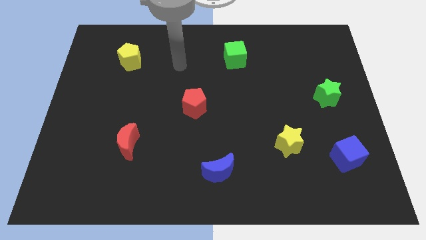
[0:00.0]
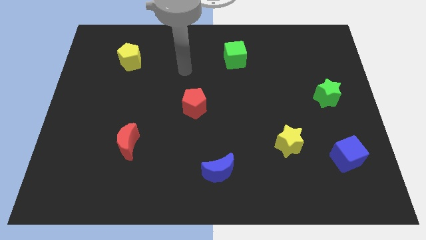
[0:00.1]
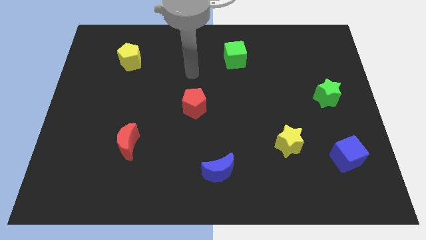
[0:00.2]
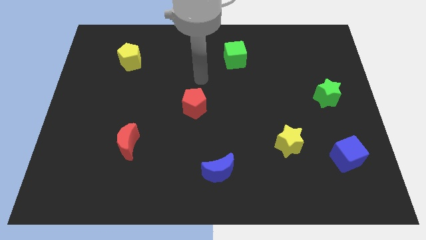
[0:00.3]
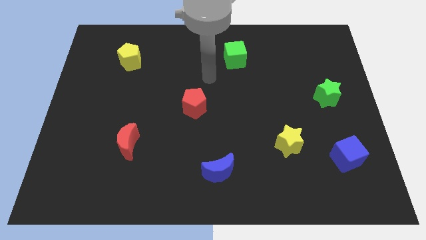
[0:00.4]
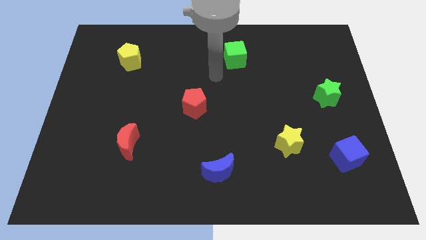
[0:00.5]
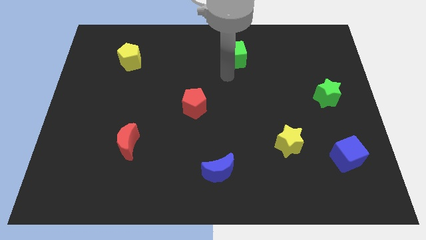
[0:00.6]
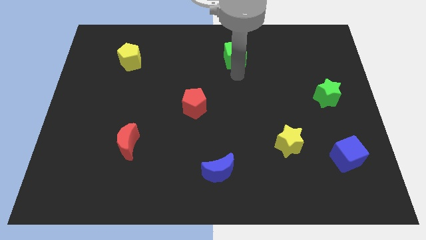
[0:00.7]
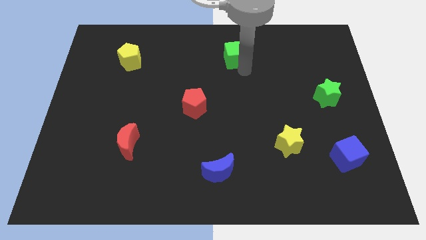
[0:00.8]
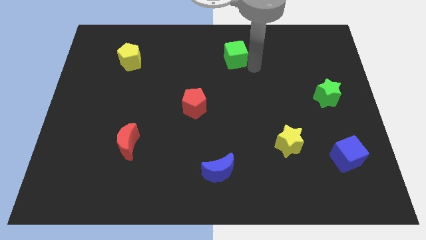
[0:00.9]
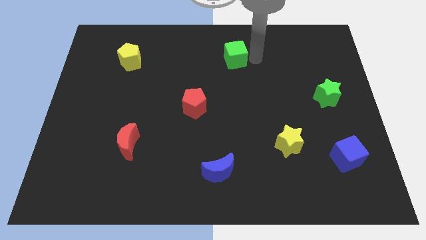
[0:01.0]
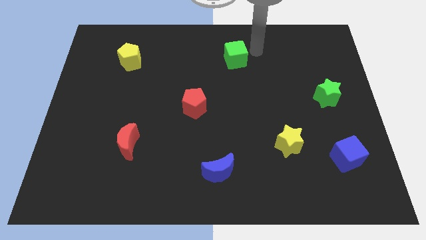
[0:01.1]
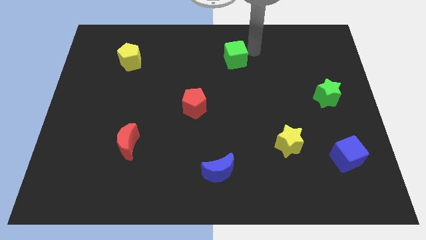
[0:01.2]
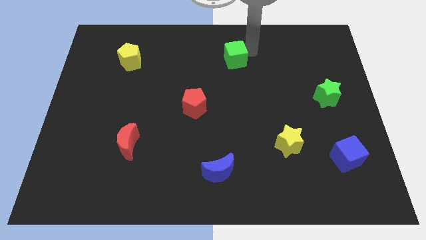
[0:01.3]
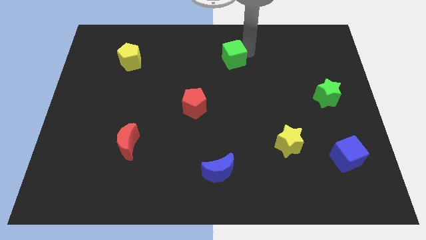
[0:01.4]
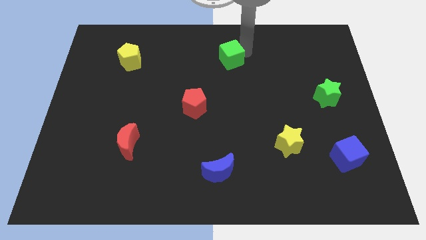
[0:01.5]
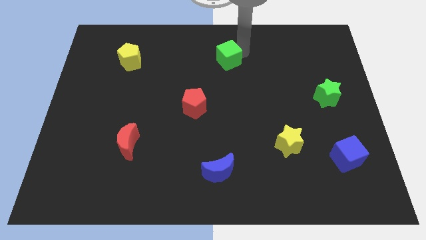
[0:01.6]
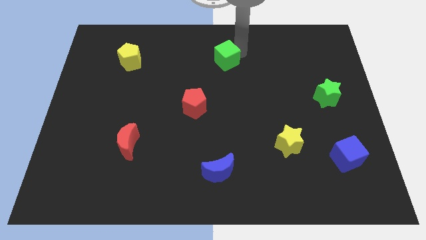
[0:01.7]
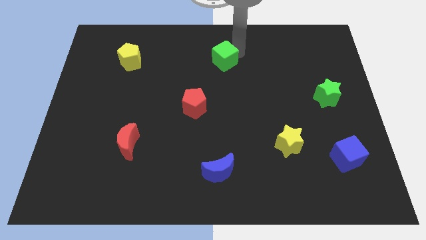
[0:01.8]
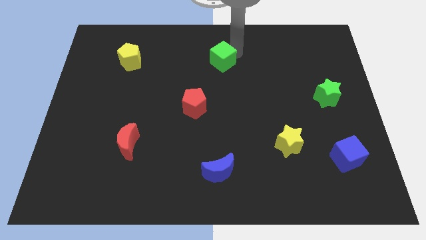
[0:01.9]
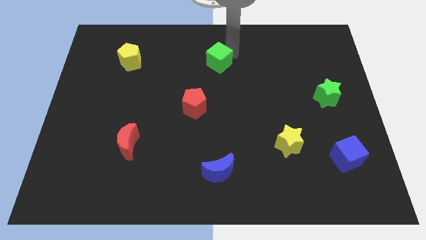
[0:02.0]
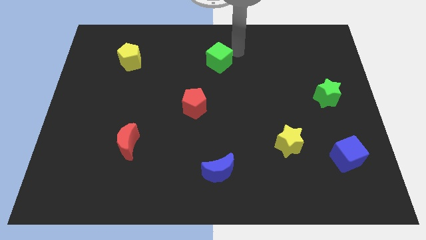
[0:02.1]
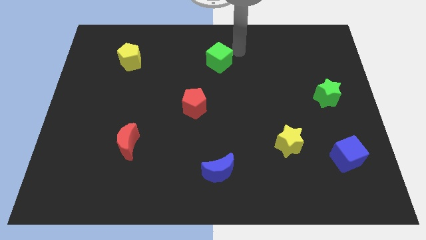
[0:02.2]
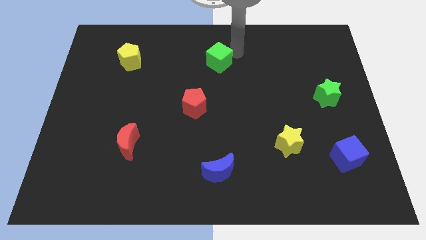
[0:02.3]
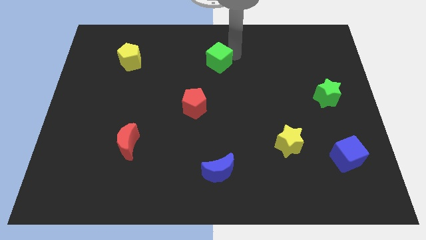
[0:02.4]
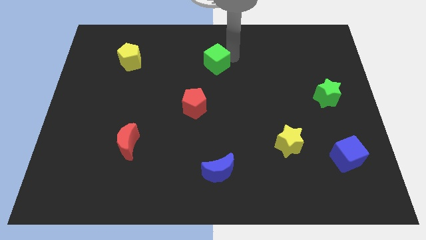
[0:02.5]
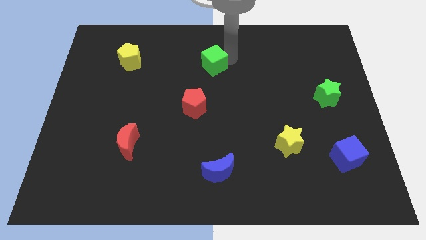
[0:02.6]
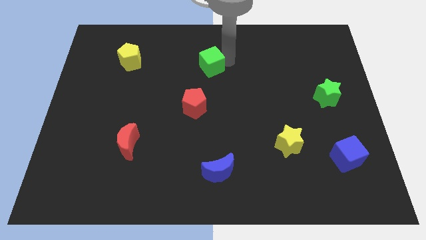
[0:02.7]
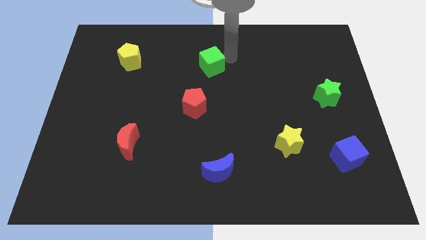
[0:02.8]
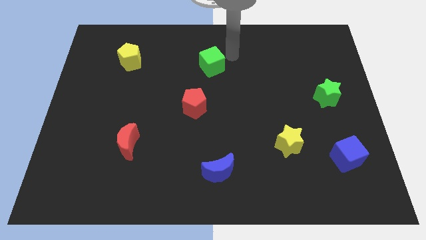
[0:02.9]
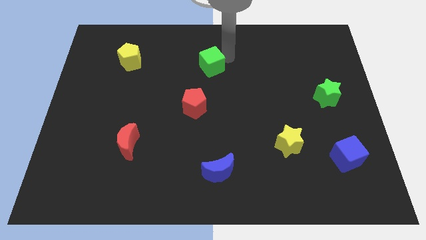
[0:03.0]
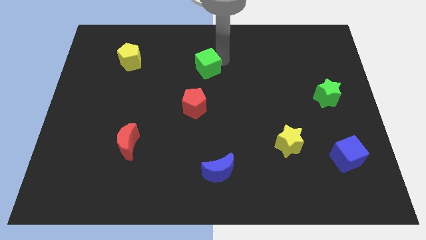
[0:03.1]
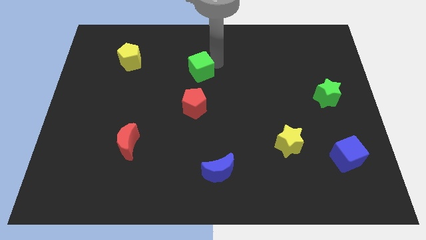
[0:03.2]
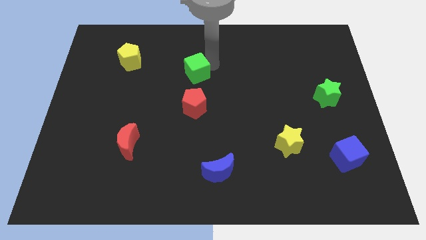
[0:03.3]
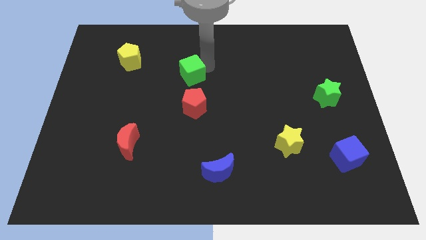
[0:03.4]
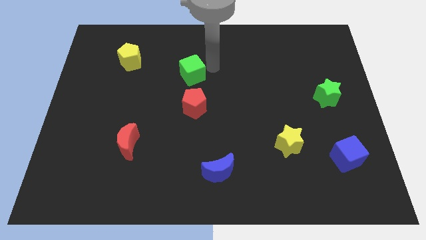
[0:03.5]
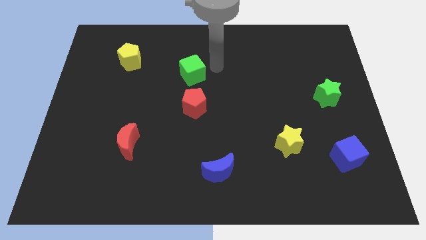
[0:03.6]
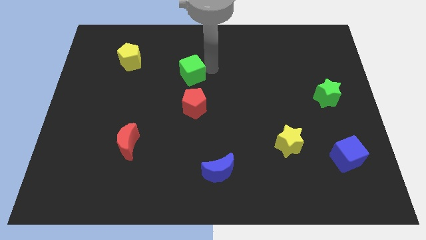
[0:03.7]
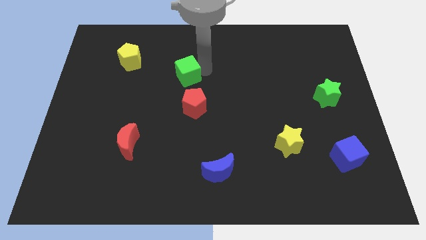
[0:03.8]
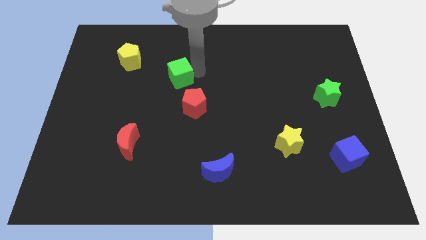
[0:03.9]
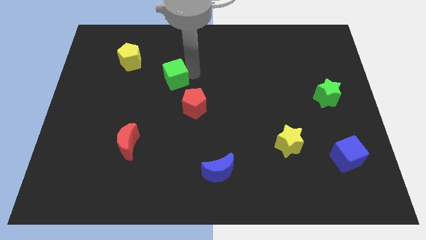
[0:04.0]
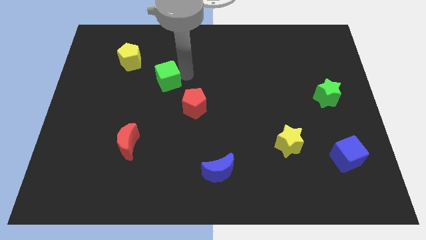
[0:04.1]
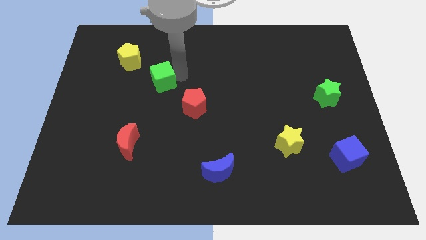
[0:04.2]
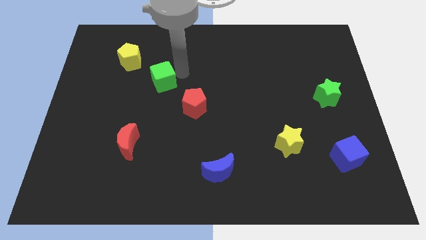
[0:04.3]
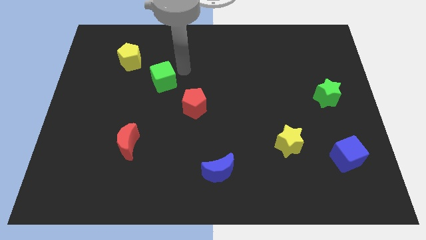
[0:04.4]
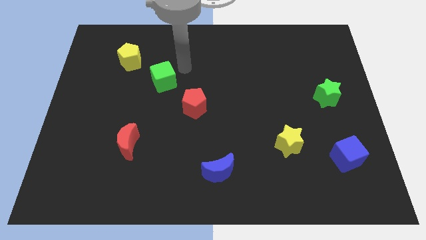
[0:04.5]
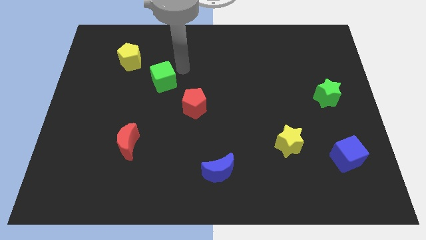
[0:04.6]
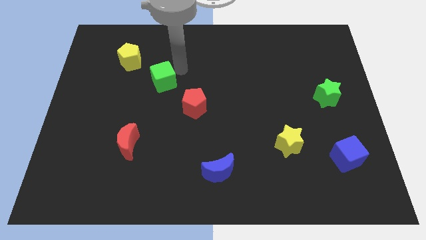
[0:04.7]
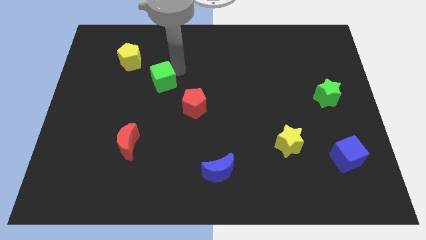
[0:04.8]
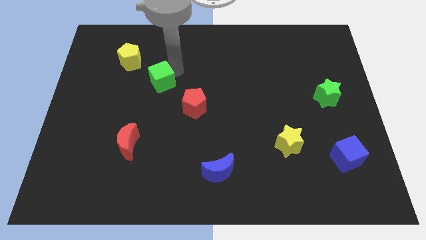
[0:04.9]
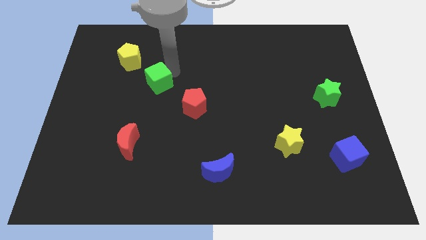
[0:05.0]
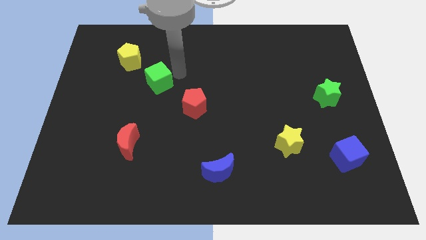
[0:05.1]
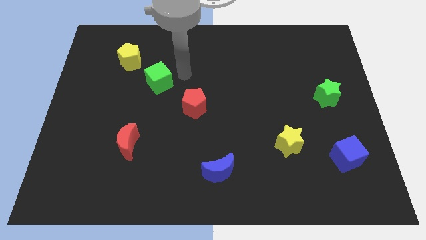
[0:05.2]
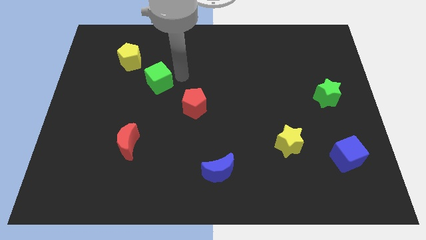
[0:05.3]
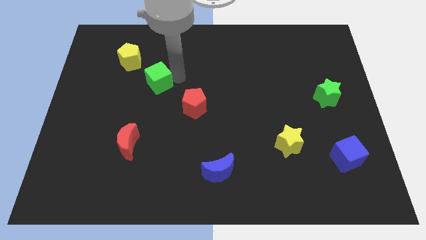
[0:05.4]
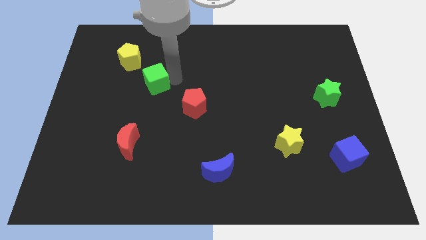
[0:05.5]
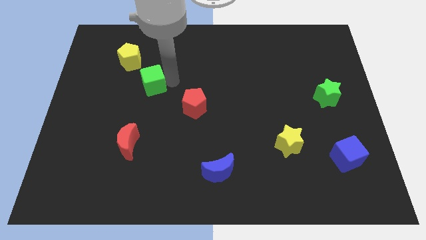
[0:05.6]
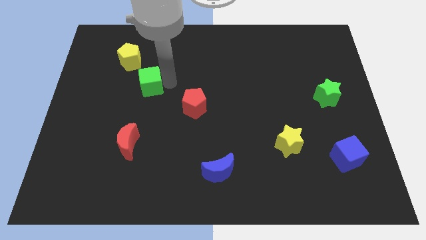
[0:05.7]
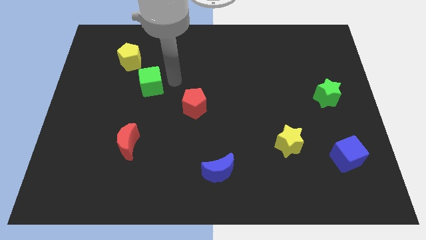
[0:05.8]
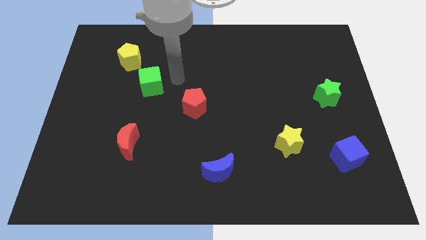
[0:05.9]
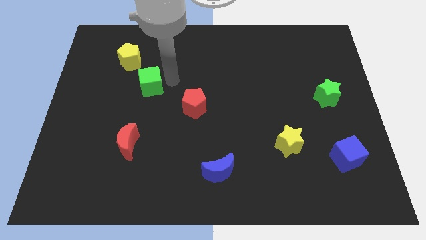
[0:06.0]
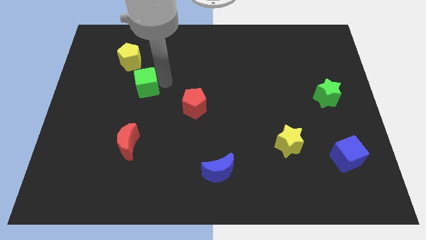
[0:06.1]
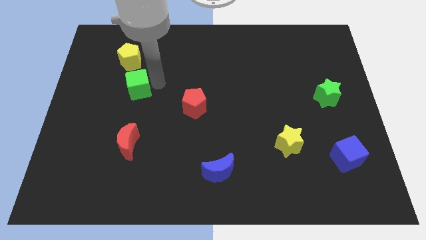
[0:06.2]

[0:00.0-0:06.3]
push the green cube to the bottom side of the yellow pentagon
